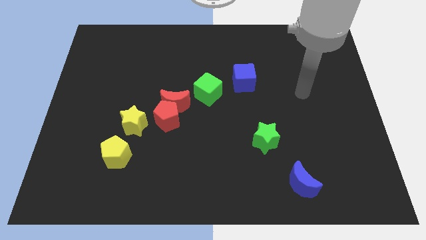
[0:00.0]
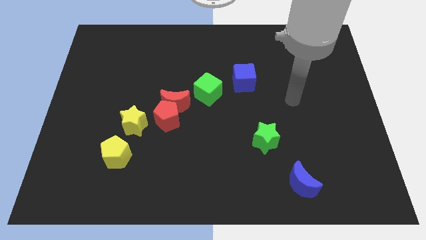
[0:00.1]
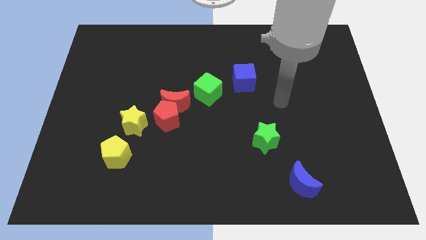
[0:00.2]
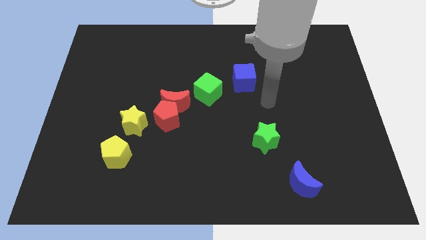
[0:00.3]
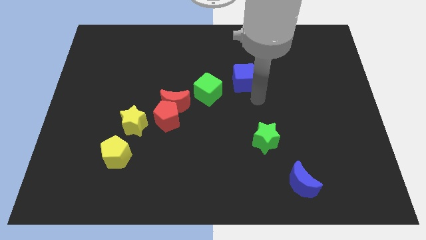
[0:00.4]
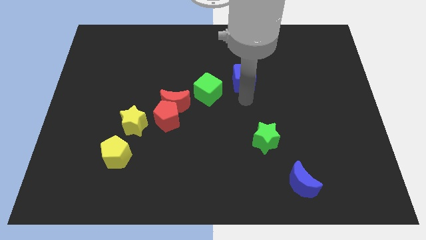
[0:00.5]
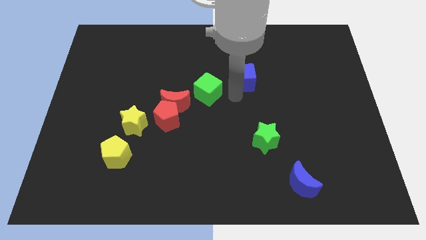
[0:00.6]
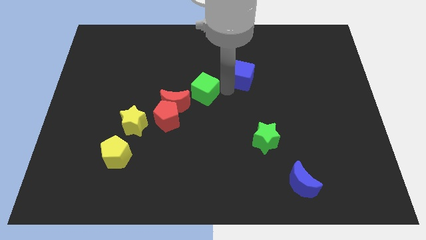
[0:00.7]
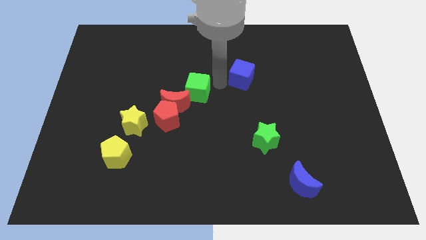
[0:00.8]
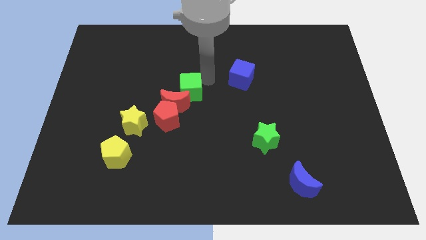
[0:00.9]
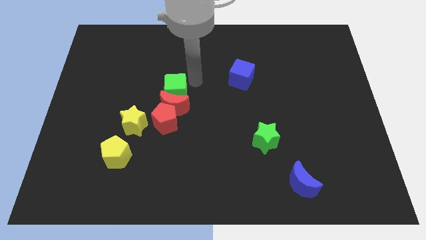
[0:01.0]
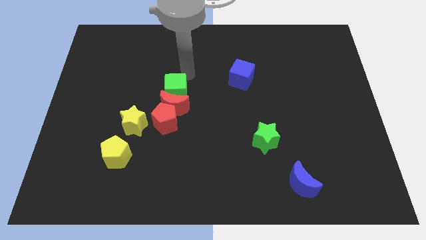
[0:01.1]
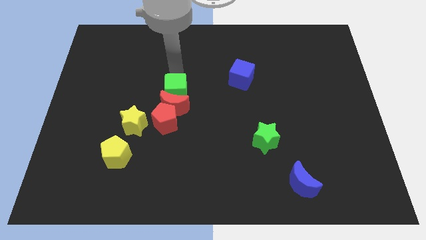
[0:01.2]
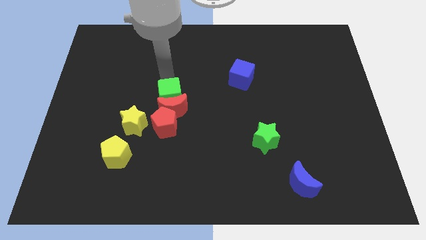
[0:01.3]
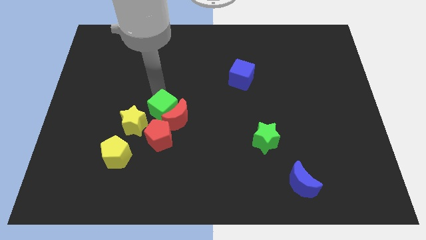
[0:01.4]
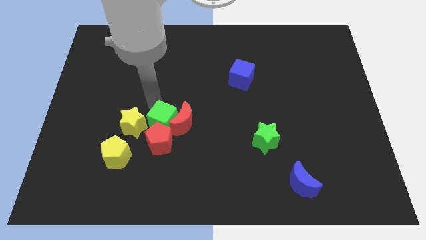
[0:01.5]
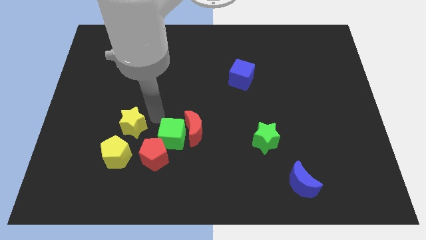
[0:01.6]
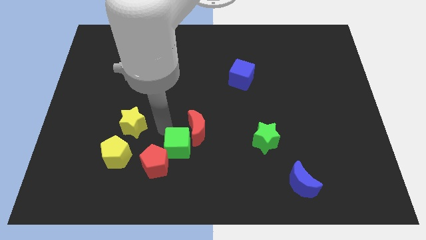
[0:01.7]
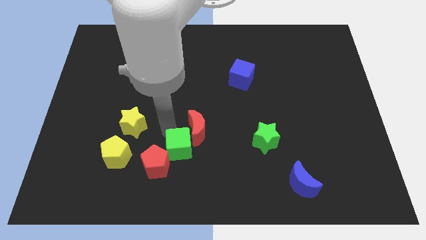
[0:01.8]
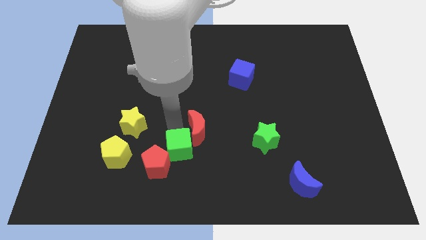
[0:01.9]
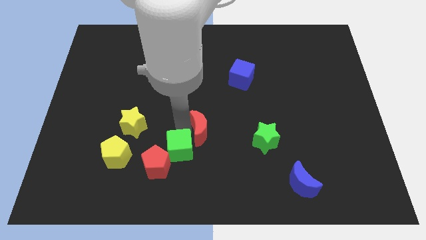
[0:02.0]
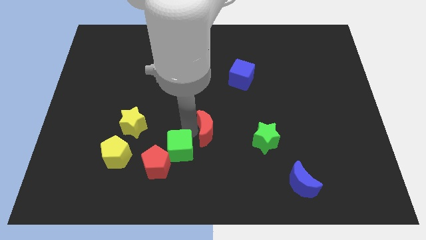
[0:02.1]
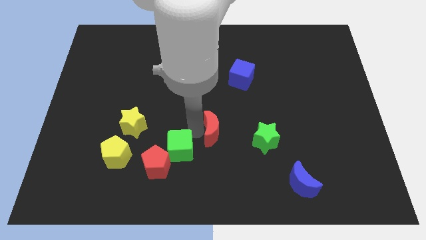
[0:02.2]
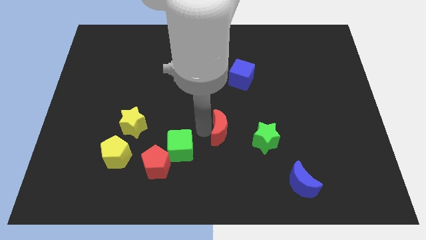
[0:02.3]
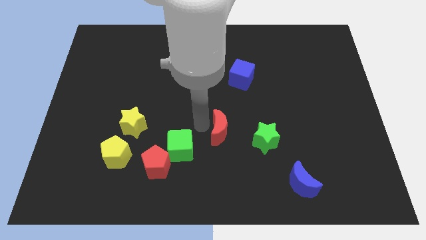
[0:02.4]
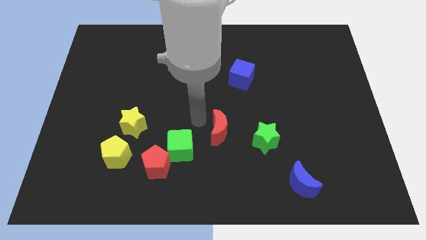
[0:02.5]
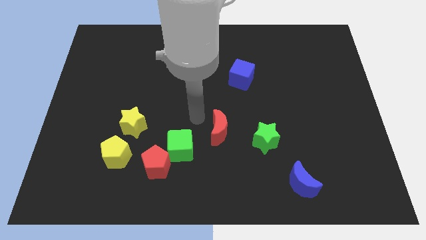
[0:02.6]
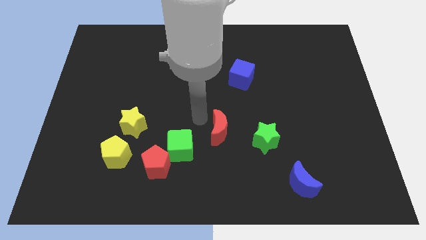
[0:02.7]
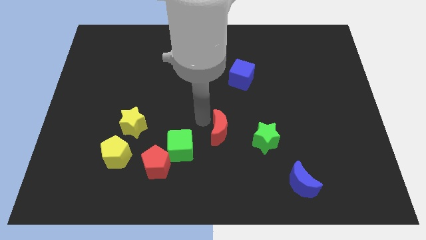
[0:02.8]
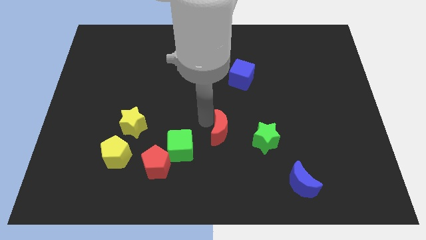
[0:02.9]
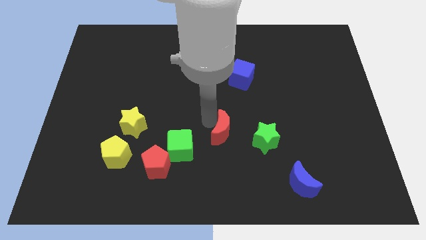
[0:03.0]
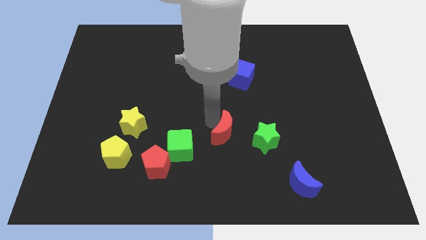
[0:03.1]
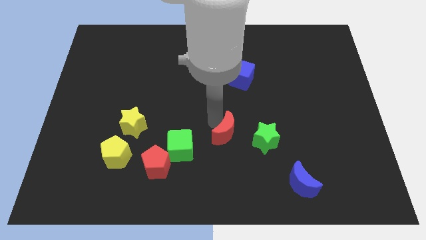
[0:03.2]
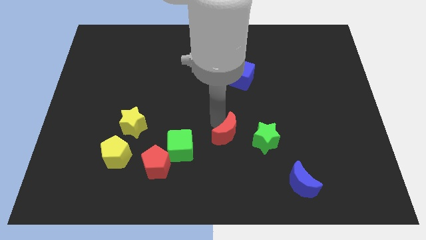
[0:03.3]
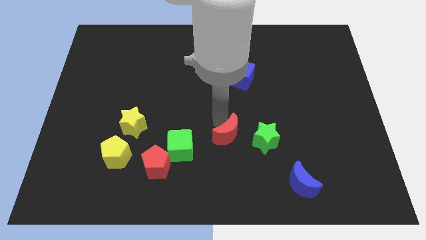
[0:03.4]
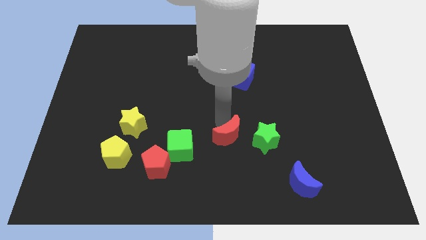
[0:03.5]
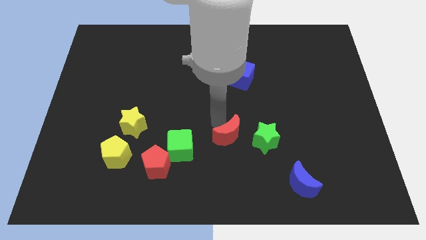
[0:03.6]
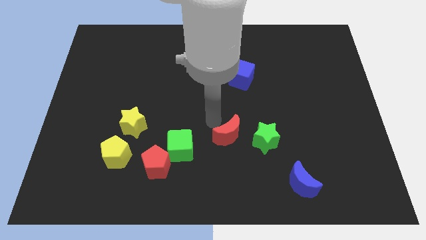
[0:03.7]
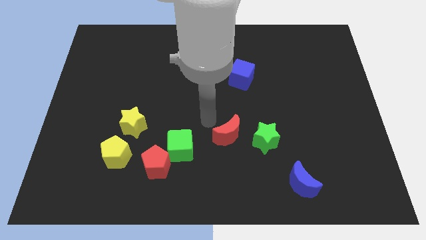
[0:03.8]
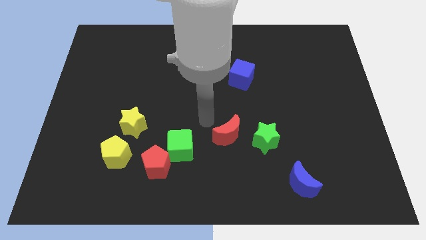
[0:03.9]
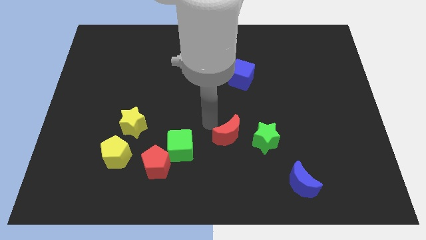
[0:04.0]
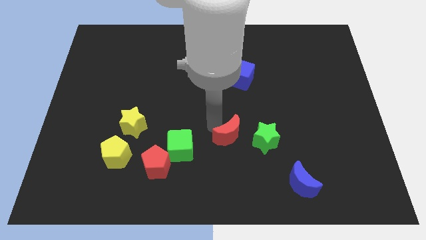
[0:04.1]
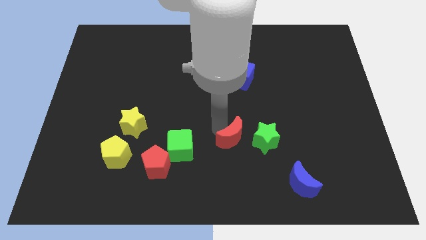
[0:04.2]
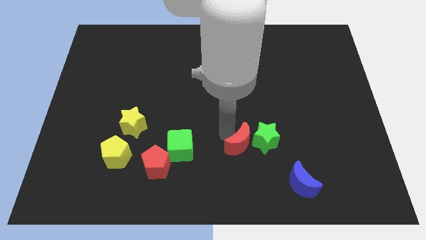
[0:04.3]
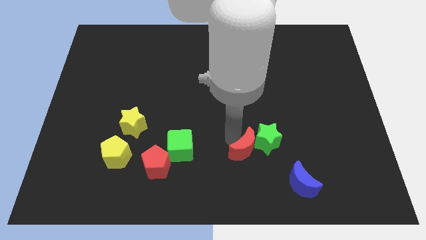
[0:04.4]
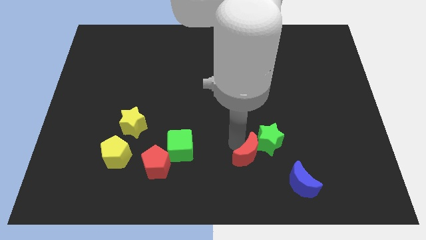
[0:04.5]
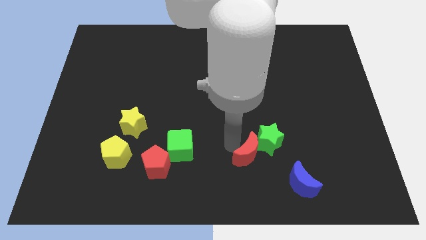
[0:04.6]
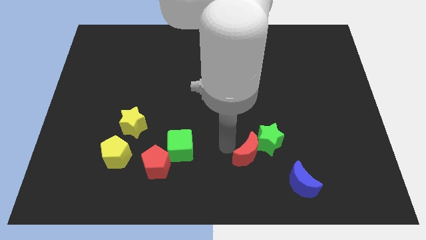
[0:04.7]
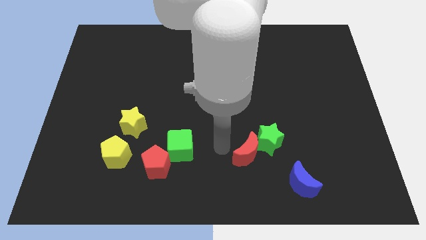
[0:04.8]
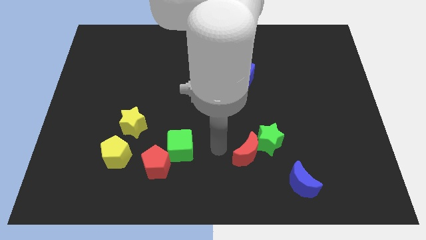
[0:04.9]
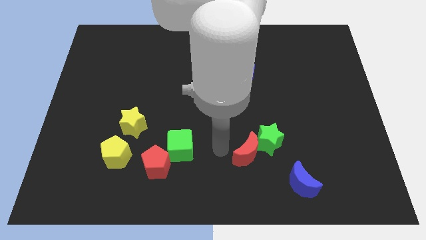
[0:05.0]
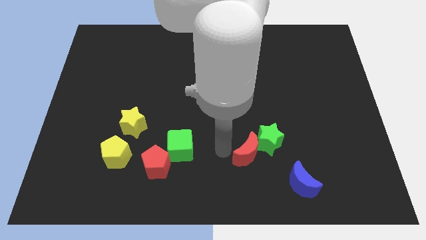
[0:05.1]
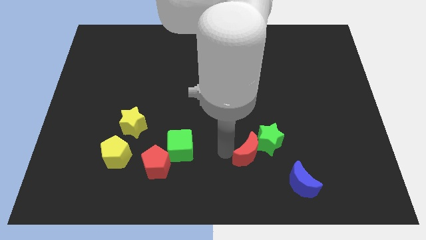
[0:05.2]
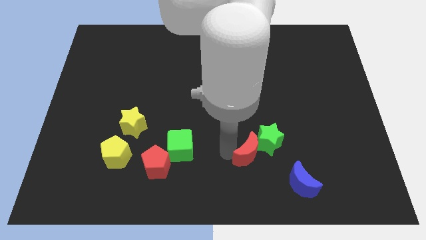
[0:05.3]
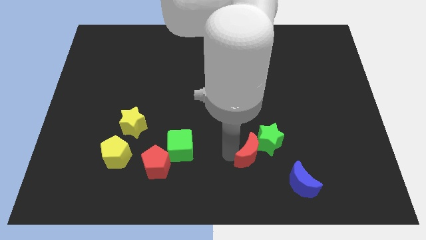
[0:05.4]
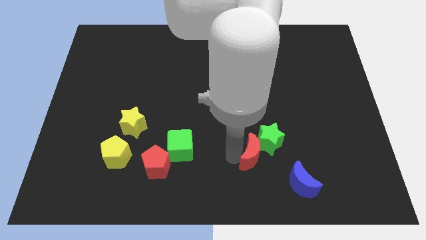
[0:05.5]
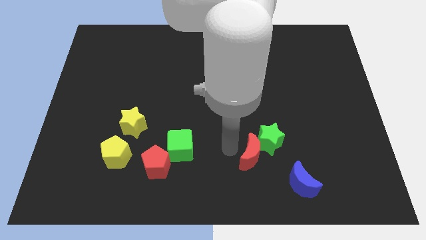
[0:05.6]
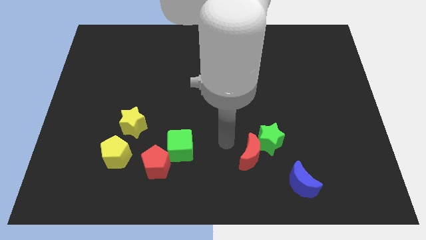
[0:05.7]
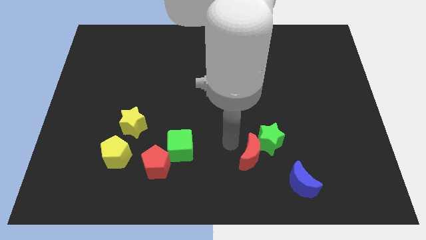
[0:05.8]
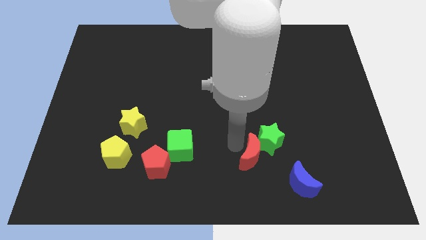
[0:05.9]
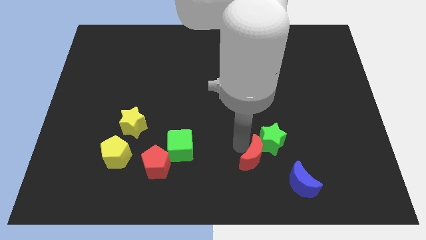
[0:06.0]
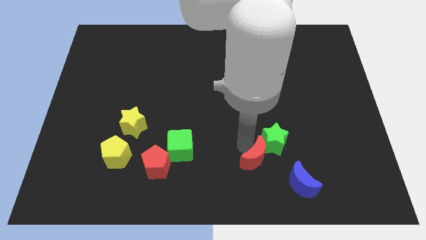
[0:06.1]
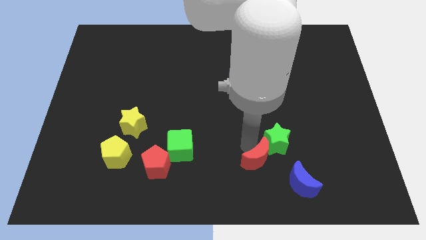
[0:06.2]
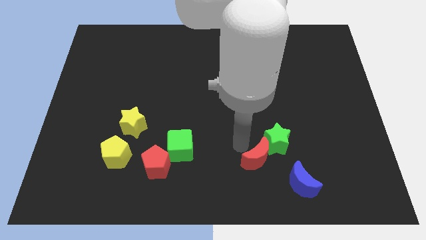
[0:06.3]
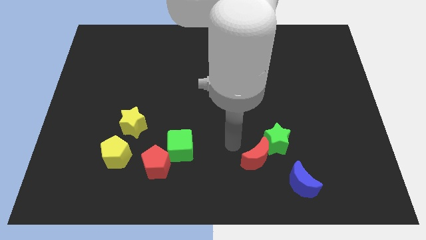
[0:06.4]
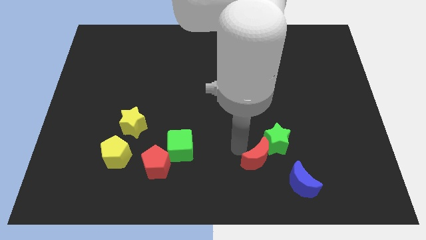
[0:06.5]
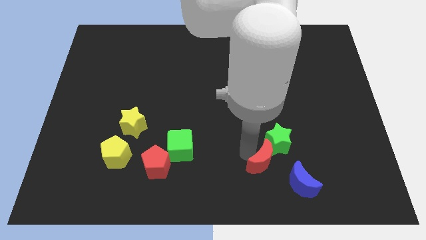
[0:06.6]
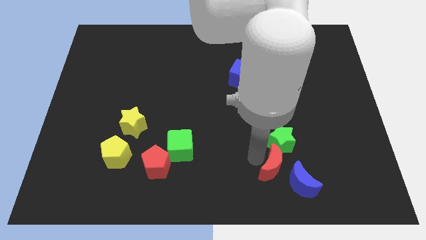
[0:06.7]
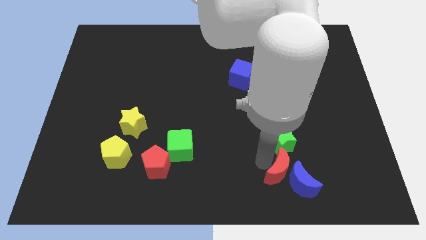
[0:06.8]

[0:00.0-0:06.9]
slide the red moon next to the blue moon
